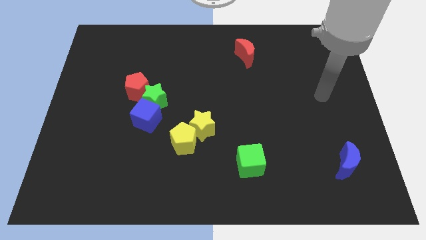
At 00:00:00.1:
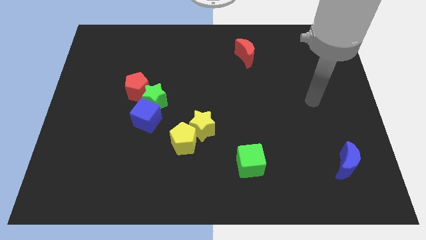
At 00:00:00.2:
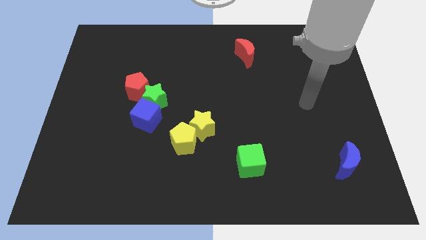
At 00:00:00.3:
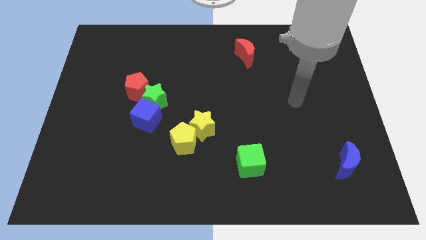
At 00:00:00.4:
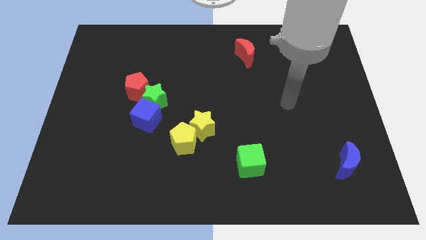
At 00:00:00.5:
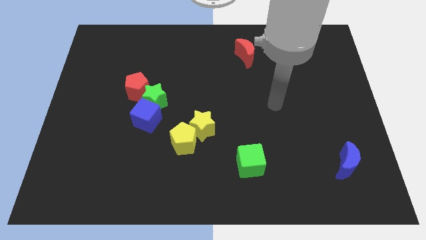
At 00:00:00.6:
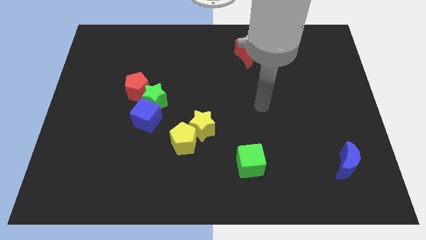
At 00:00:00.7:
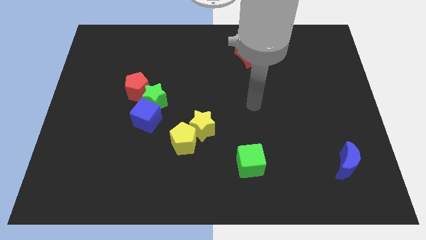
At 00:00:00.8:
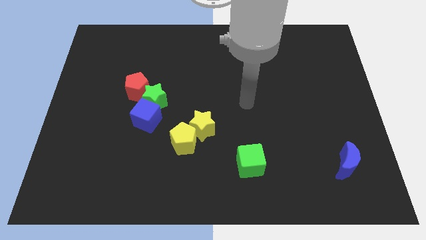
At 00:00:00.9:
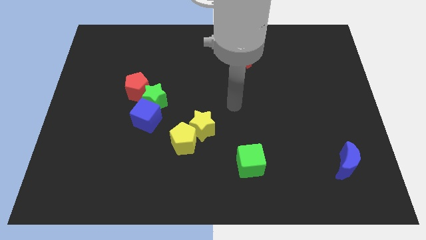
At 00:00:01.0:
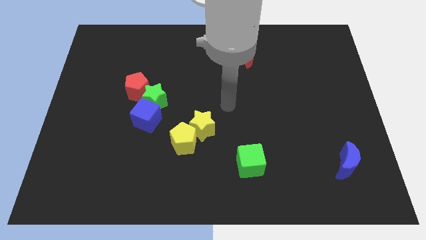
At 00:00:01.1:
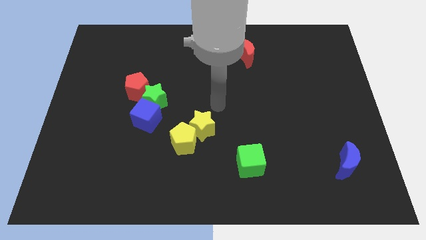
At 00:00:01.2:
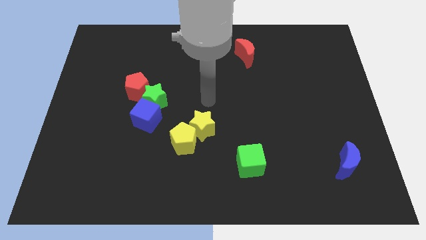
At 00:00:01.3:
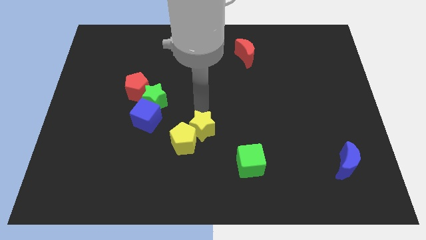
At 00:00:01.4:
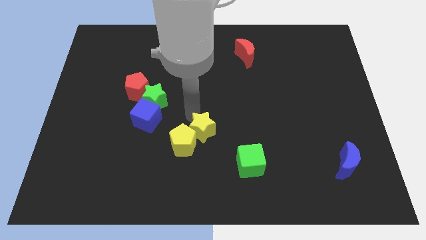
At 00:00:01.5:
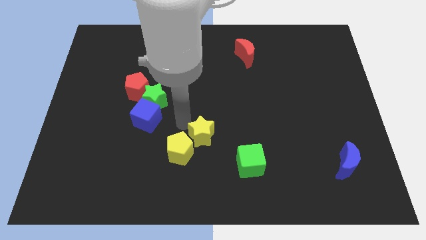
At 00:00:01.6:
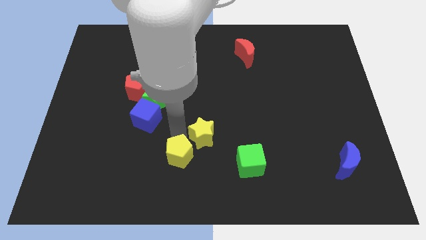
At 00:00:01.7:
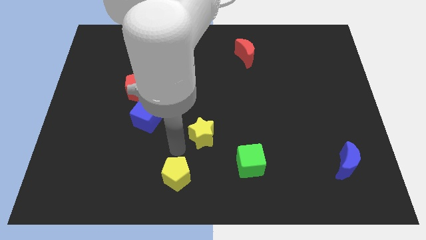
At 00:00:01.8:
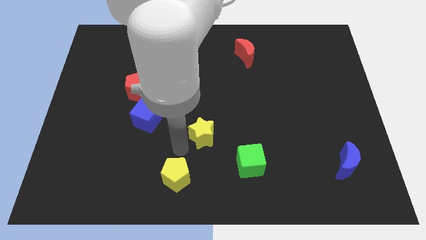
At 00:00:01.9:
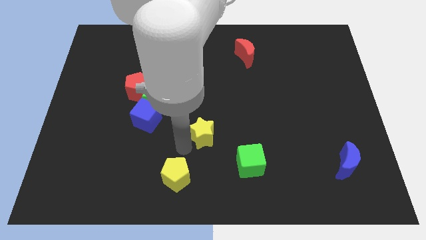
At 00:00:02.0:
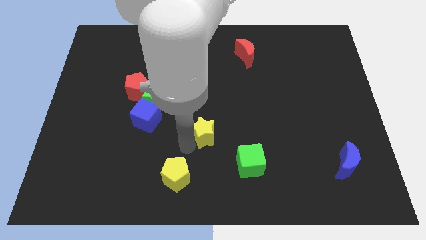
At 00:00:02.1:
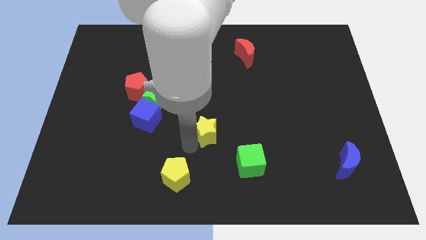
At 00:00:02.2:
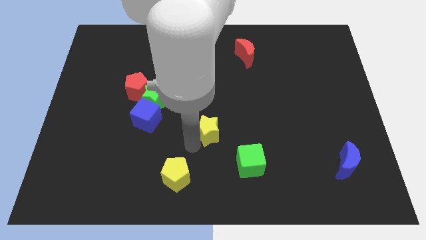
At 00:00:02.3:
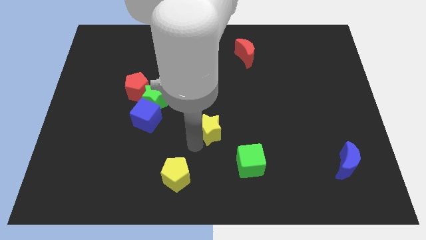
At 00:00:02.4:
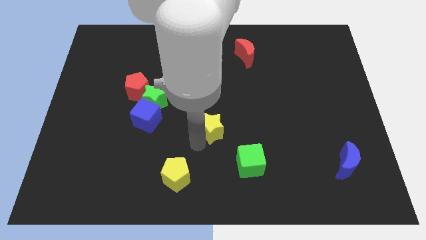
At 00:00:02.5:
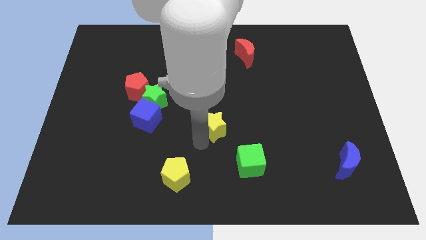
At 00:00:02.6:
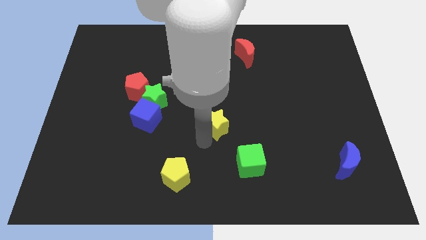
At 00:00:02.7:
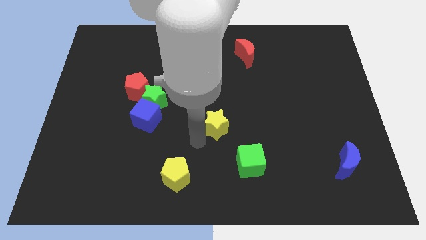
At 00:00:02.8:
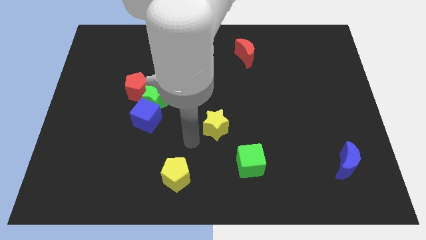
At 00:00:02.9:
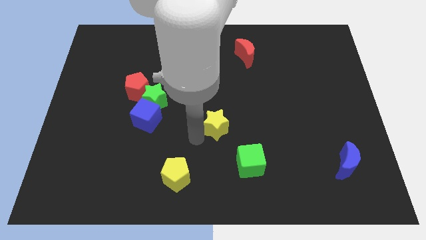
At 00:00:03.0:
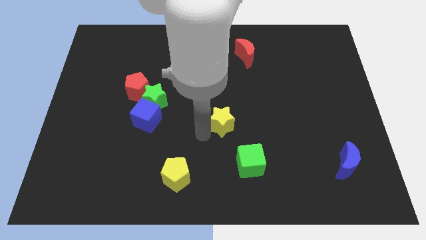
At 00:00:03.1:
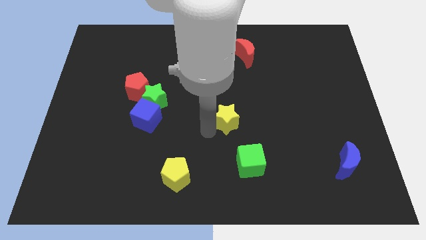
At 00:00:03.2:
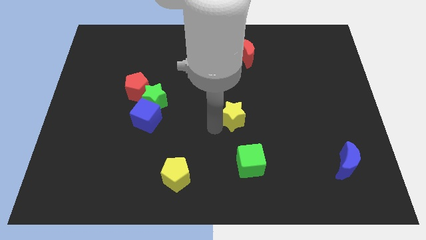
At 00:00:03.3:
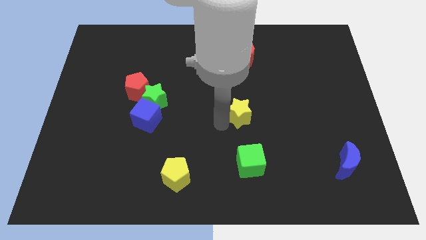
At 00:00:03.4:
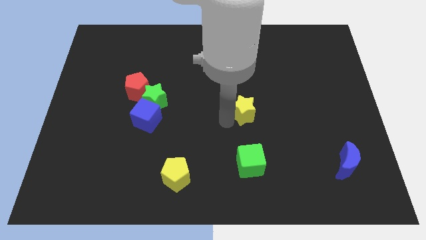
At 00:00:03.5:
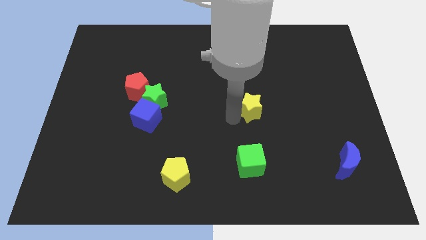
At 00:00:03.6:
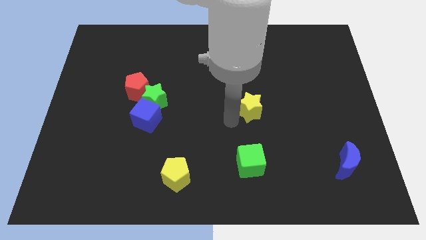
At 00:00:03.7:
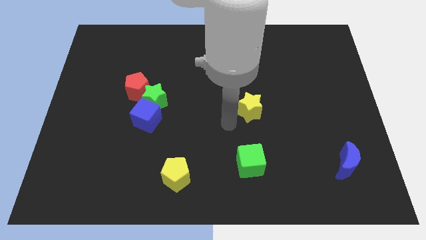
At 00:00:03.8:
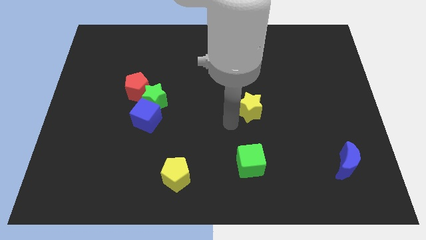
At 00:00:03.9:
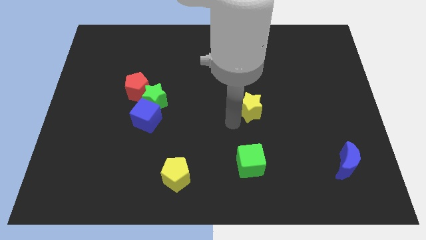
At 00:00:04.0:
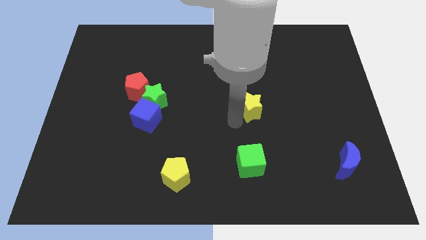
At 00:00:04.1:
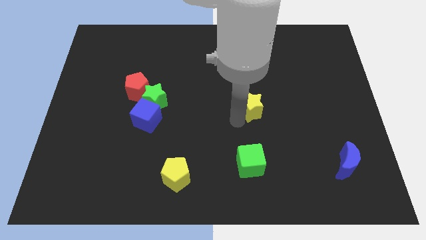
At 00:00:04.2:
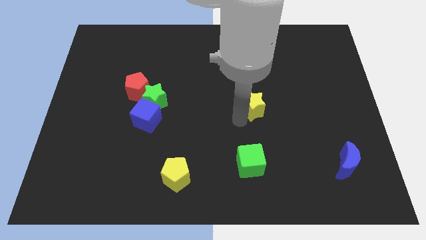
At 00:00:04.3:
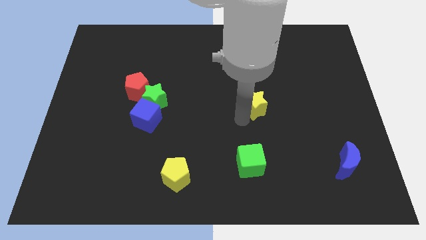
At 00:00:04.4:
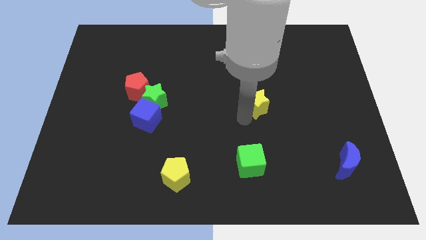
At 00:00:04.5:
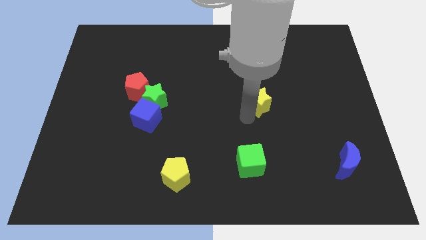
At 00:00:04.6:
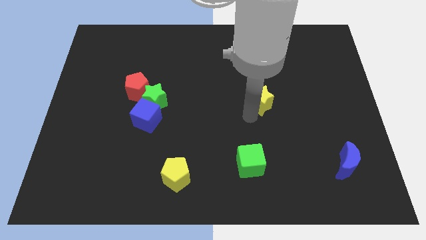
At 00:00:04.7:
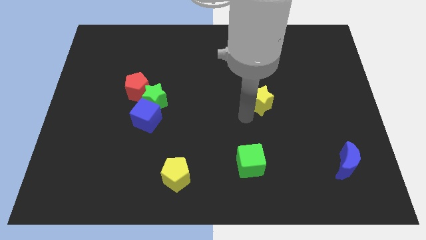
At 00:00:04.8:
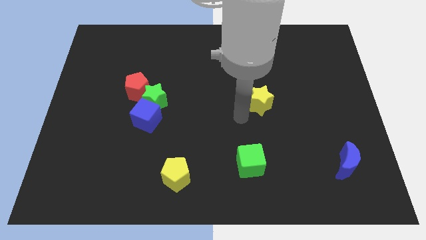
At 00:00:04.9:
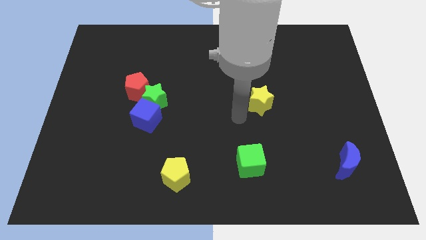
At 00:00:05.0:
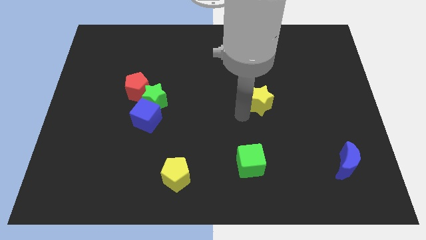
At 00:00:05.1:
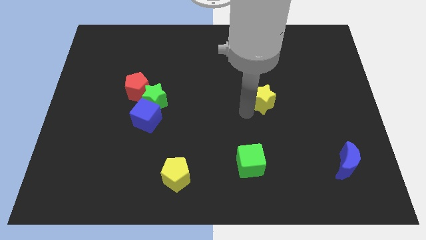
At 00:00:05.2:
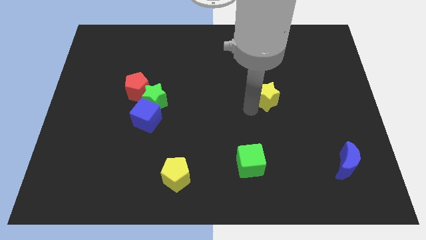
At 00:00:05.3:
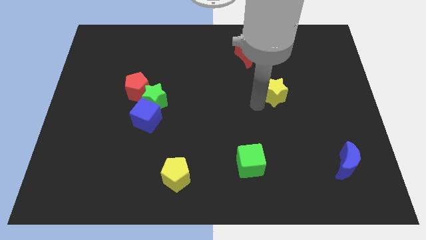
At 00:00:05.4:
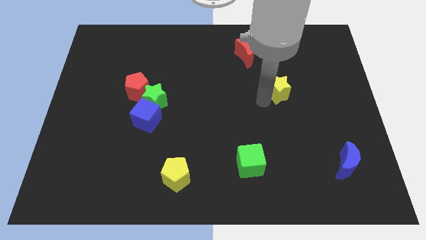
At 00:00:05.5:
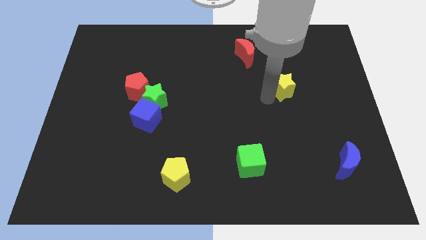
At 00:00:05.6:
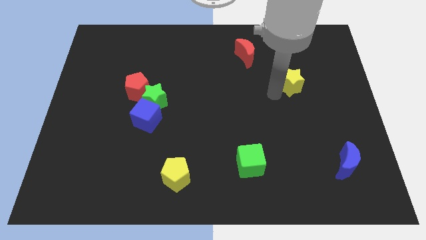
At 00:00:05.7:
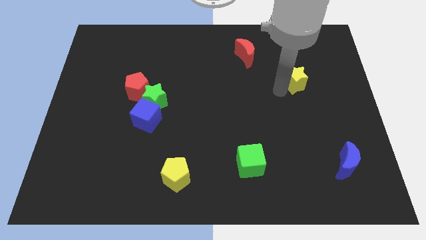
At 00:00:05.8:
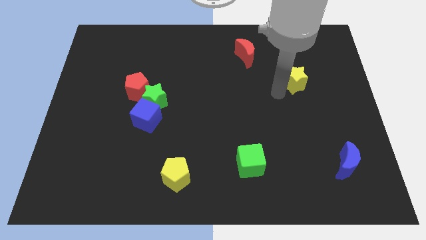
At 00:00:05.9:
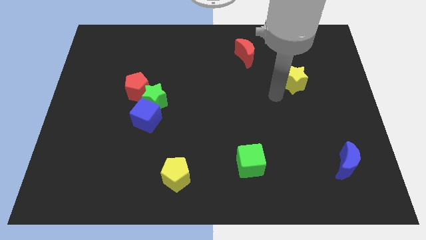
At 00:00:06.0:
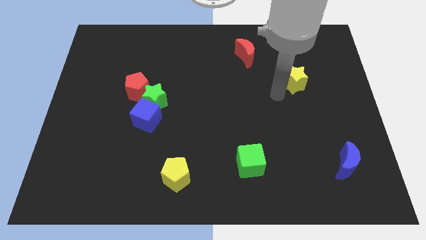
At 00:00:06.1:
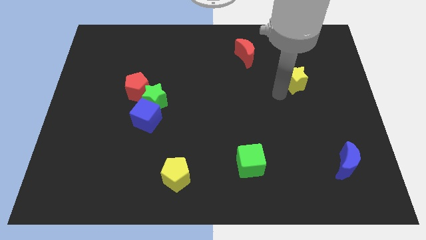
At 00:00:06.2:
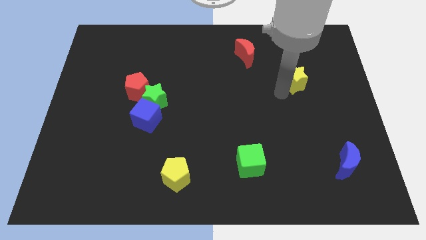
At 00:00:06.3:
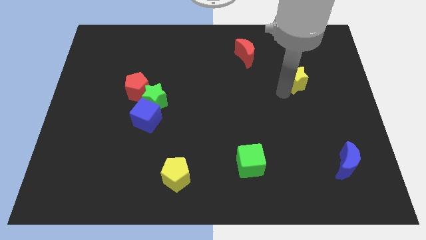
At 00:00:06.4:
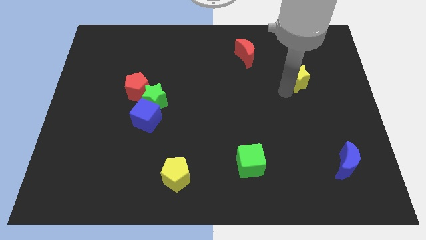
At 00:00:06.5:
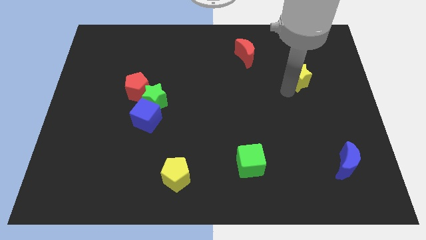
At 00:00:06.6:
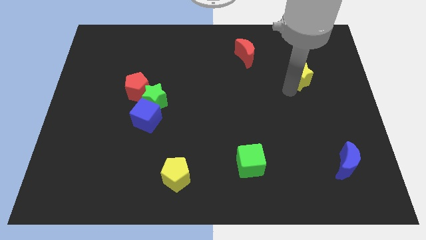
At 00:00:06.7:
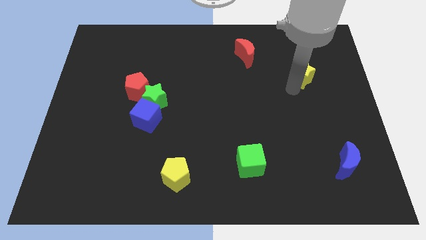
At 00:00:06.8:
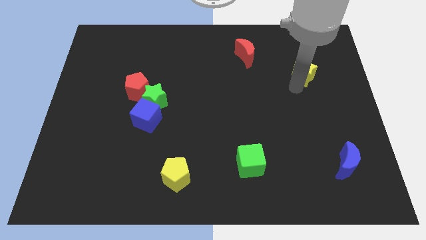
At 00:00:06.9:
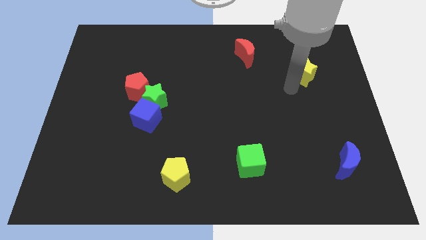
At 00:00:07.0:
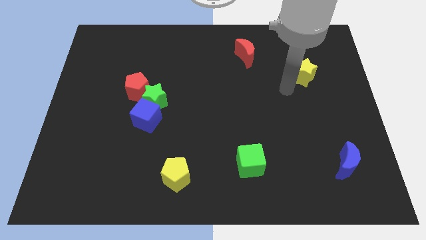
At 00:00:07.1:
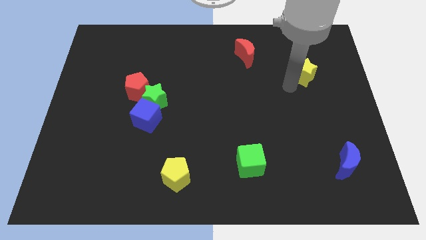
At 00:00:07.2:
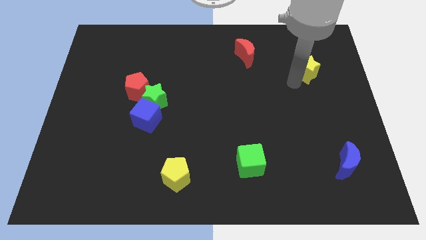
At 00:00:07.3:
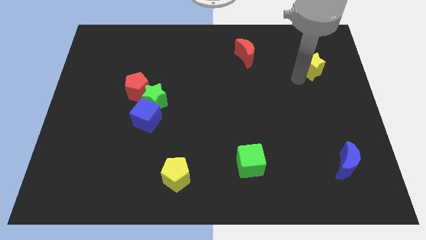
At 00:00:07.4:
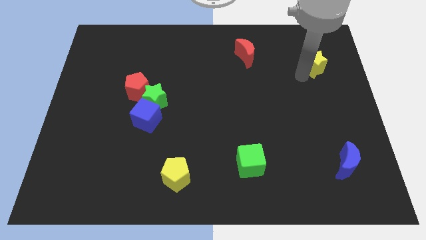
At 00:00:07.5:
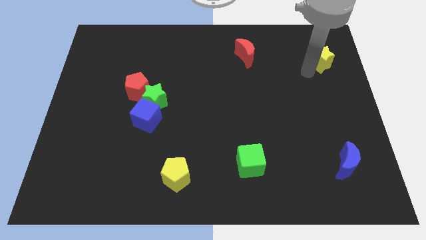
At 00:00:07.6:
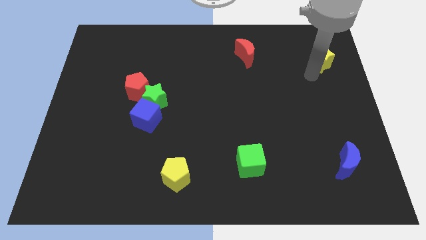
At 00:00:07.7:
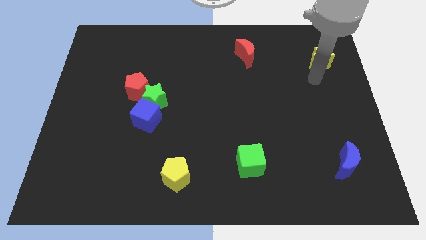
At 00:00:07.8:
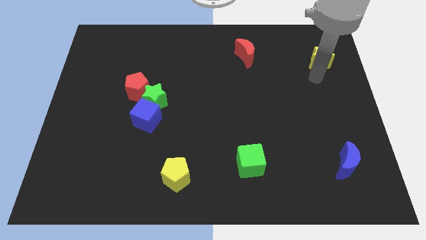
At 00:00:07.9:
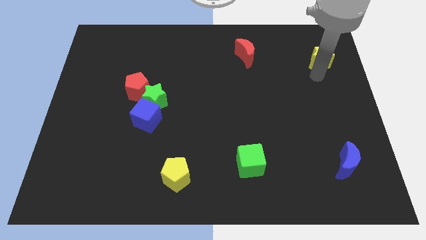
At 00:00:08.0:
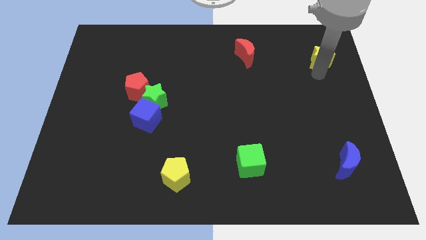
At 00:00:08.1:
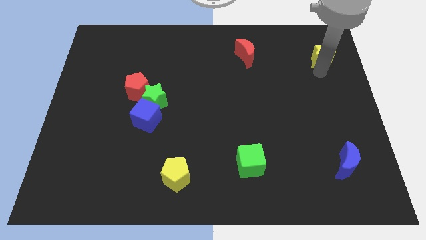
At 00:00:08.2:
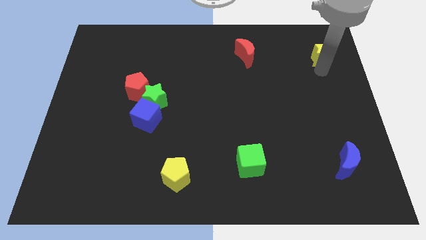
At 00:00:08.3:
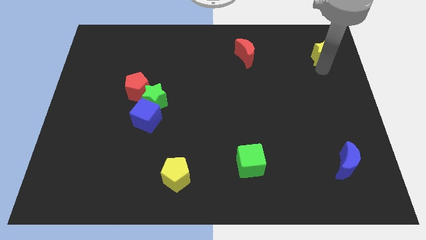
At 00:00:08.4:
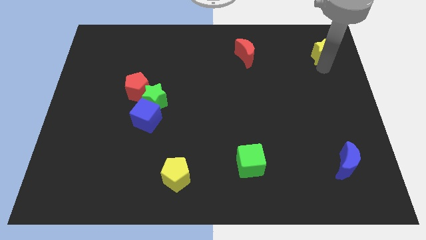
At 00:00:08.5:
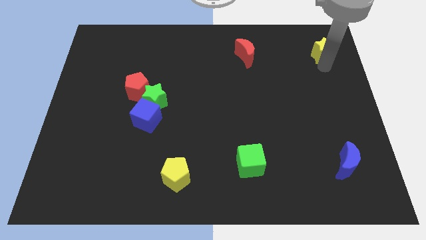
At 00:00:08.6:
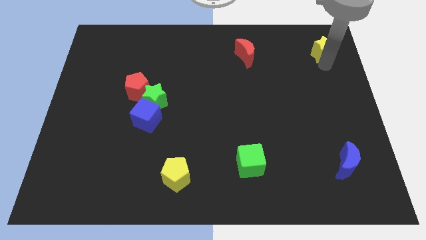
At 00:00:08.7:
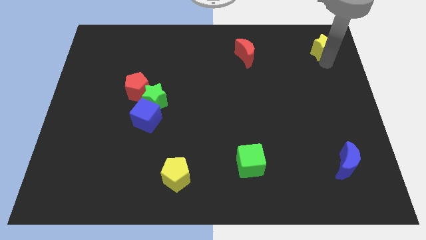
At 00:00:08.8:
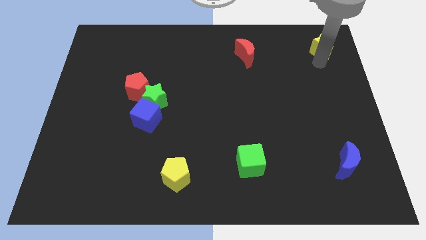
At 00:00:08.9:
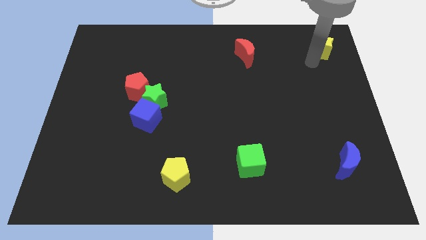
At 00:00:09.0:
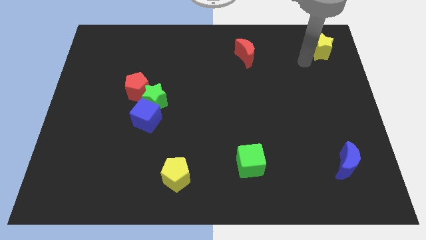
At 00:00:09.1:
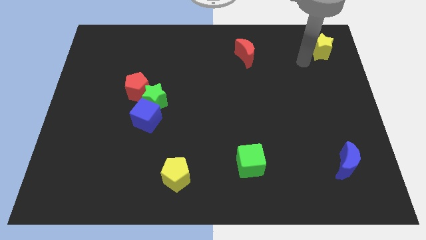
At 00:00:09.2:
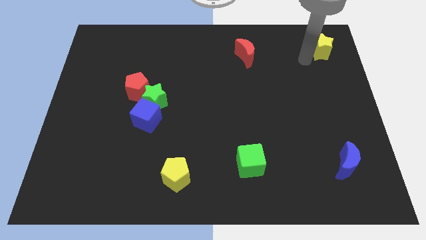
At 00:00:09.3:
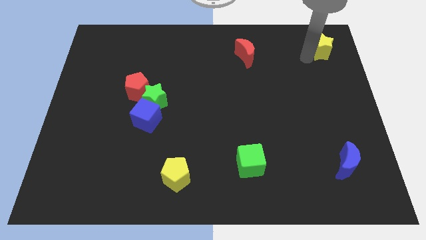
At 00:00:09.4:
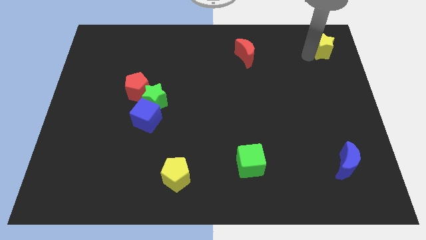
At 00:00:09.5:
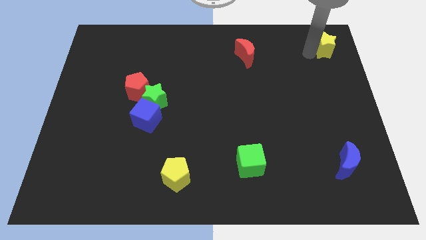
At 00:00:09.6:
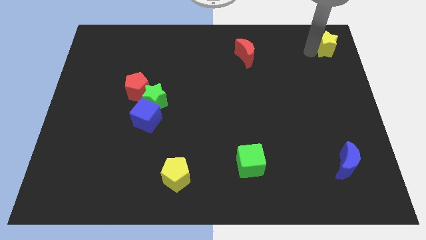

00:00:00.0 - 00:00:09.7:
move the yellow star to the upper right corner
